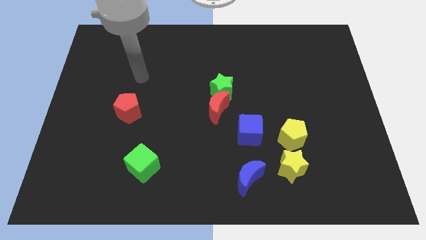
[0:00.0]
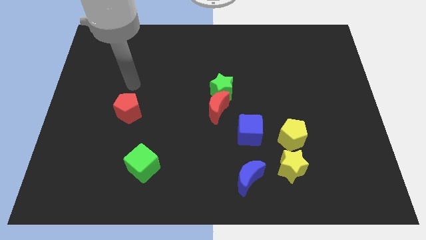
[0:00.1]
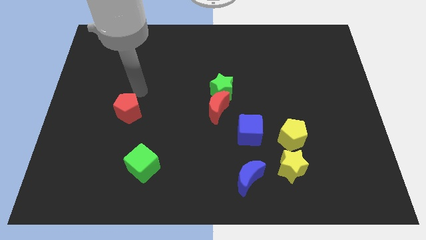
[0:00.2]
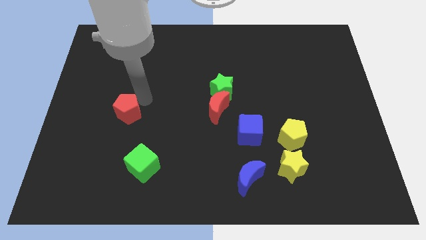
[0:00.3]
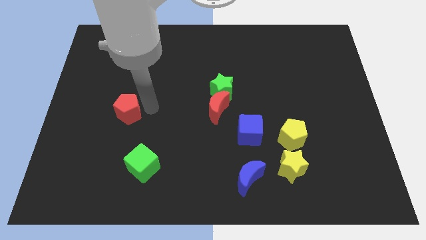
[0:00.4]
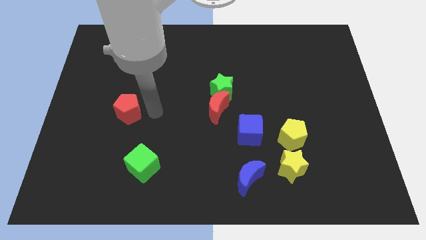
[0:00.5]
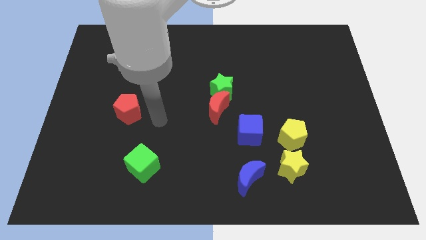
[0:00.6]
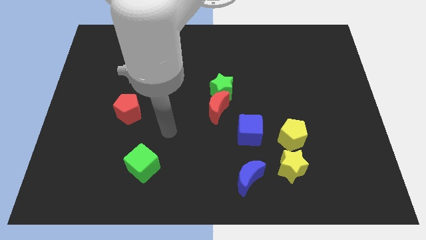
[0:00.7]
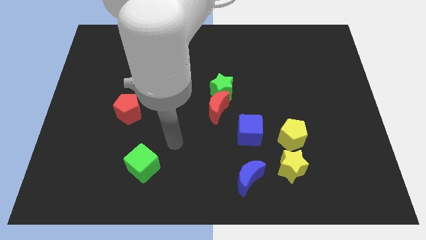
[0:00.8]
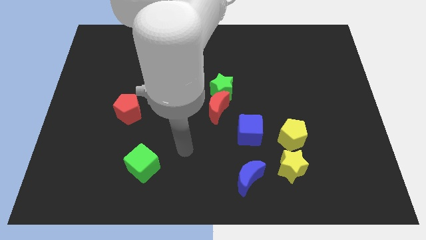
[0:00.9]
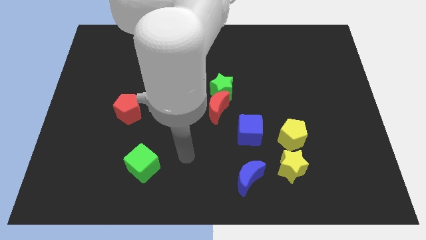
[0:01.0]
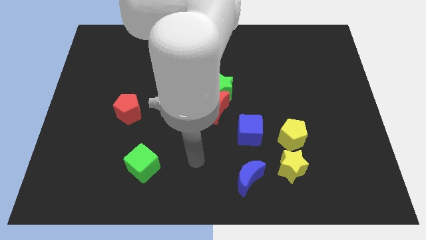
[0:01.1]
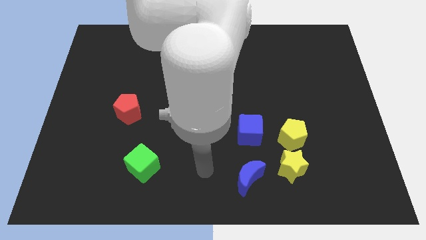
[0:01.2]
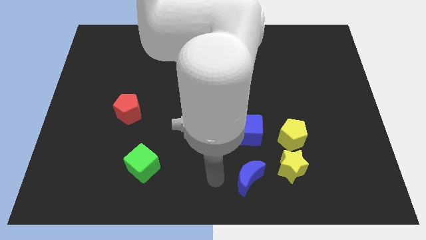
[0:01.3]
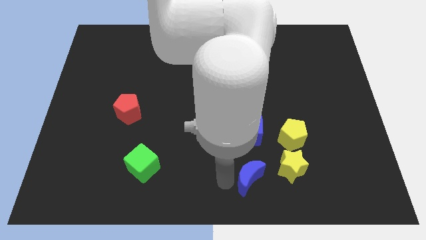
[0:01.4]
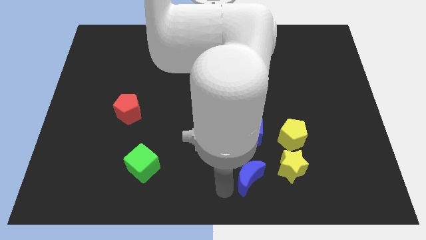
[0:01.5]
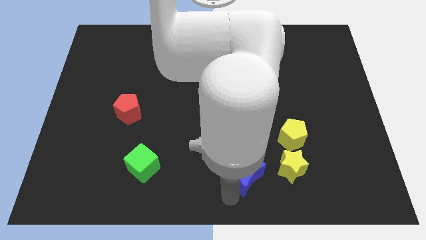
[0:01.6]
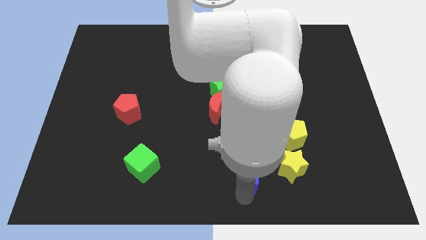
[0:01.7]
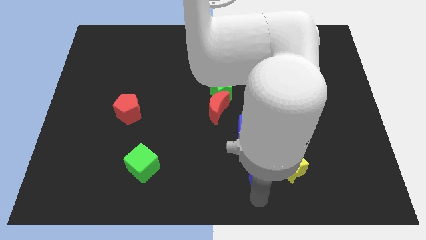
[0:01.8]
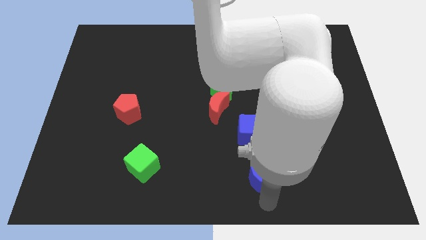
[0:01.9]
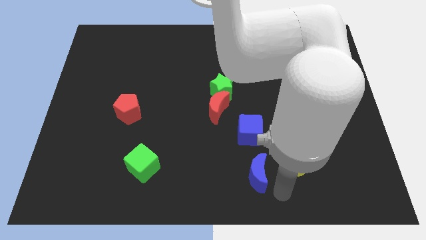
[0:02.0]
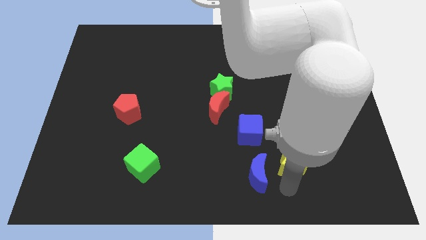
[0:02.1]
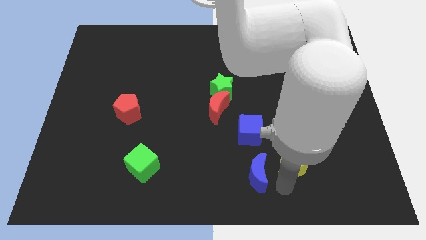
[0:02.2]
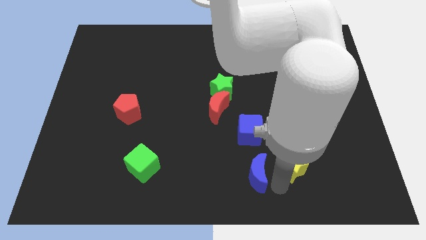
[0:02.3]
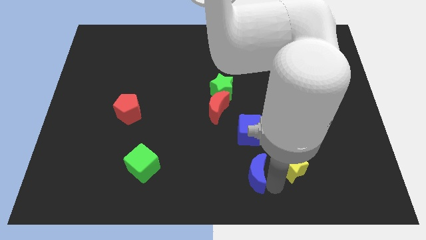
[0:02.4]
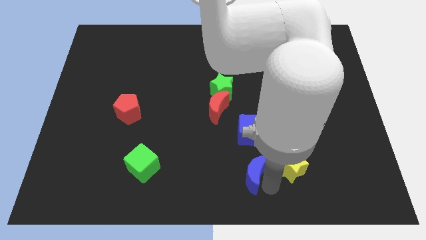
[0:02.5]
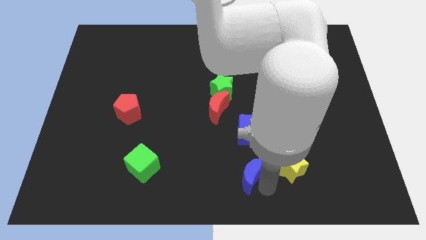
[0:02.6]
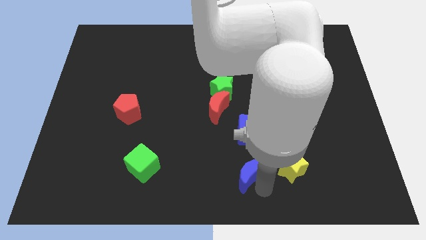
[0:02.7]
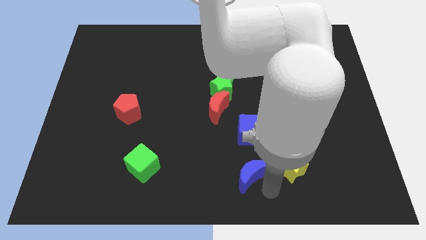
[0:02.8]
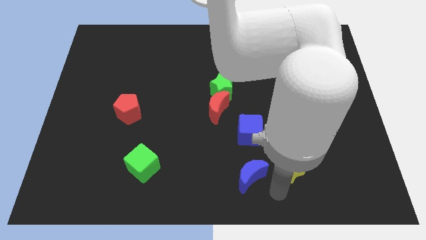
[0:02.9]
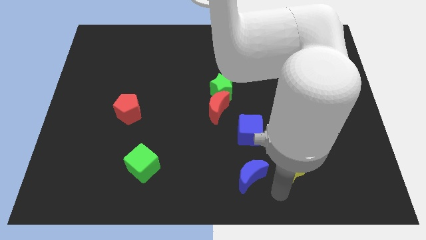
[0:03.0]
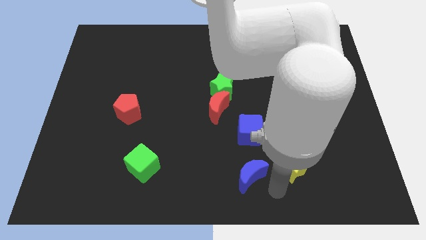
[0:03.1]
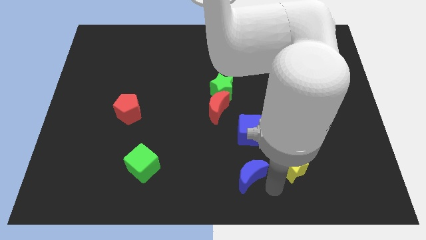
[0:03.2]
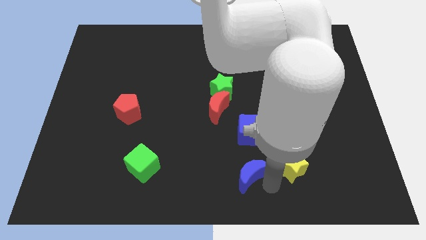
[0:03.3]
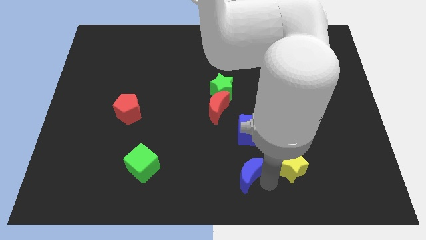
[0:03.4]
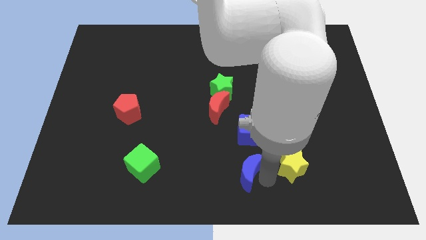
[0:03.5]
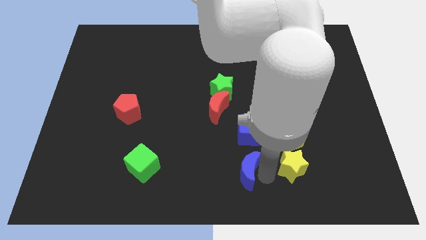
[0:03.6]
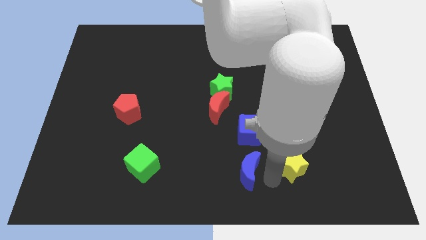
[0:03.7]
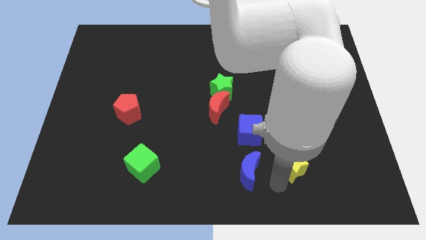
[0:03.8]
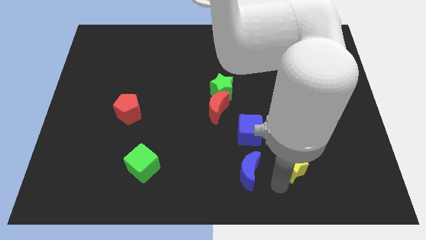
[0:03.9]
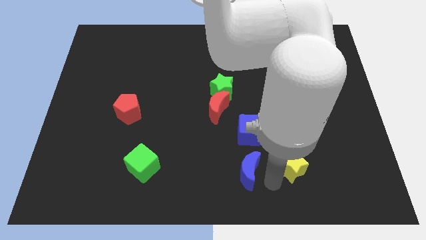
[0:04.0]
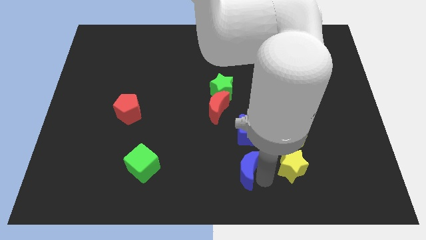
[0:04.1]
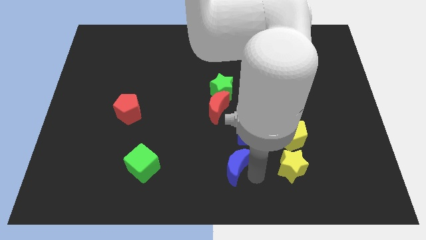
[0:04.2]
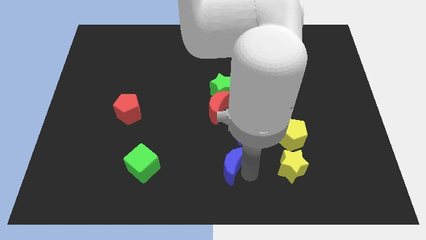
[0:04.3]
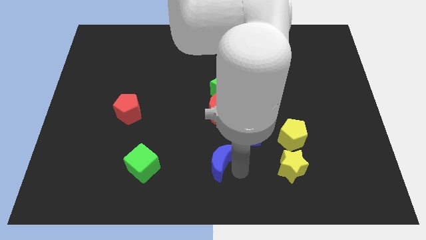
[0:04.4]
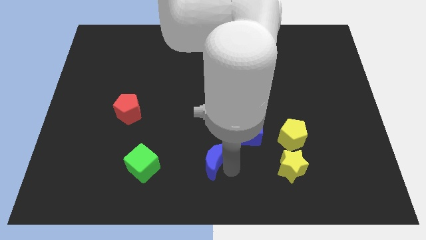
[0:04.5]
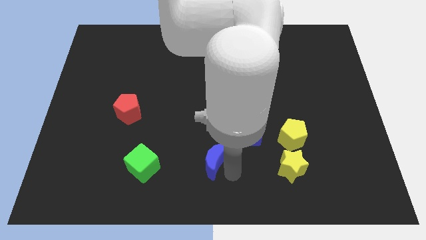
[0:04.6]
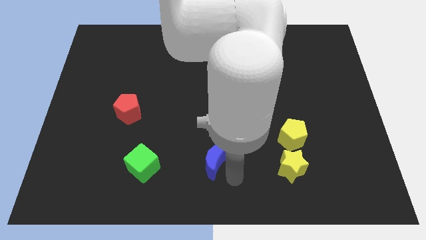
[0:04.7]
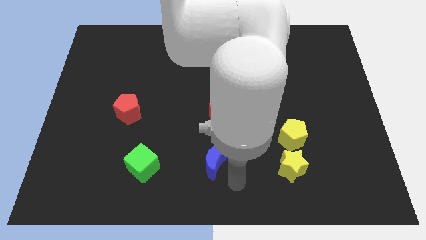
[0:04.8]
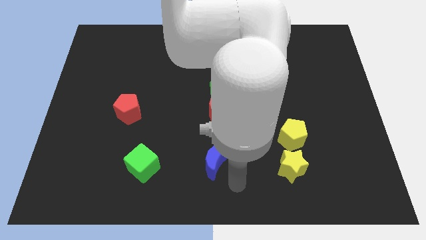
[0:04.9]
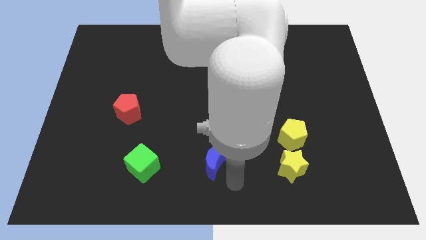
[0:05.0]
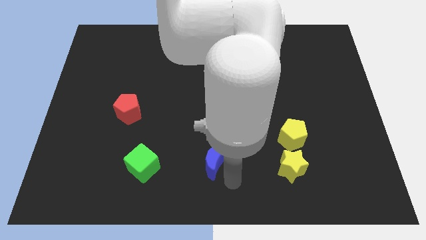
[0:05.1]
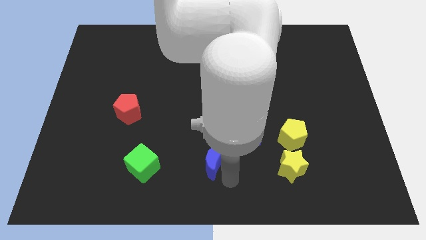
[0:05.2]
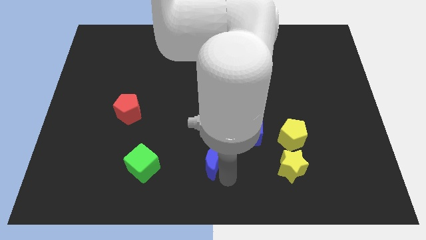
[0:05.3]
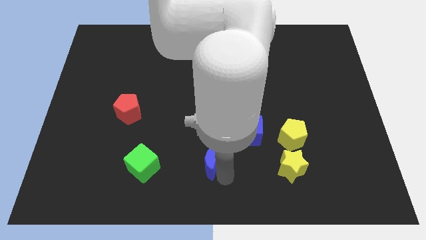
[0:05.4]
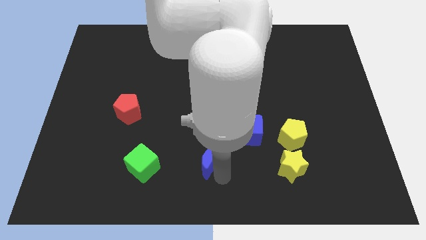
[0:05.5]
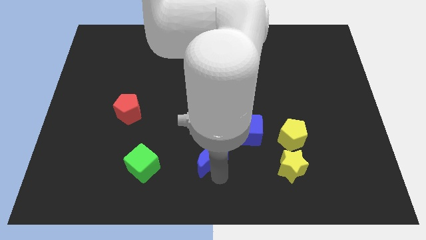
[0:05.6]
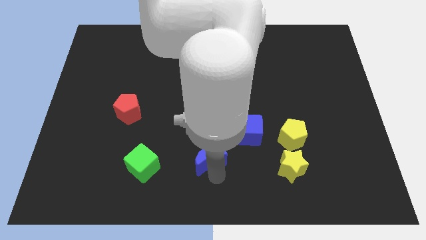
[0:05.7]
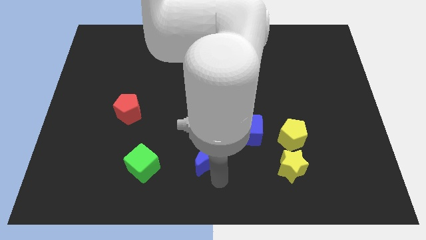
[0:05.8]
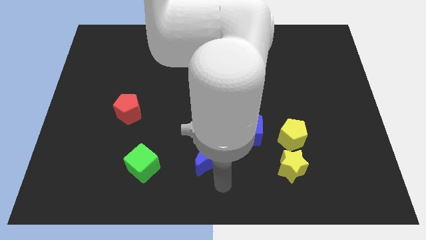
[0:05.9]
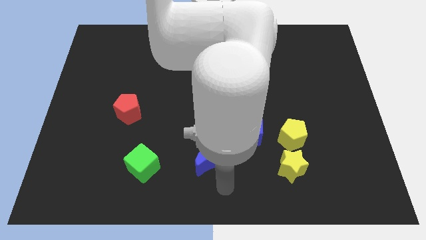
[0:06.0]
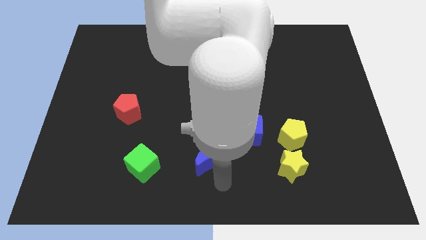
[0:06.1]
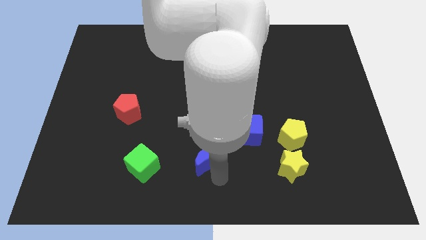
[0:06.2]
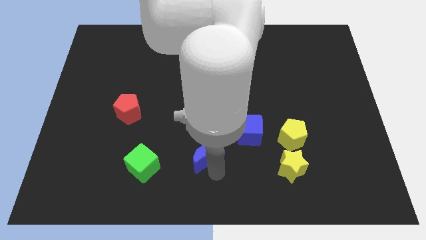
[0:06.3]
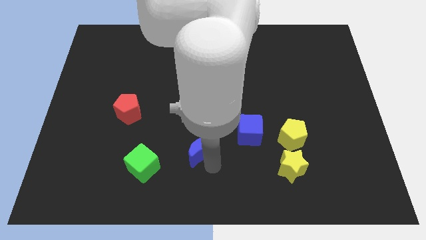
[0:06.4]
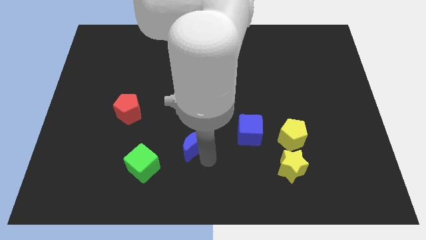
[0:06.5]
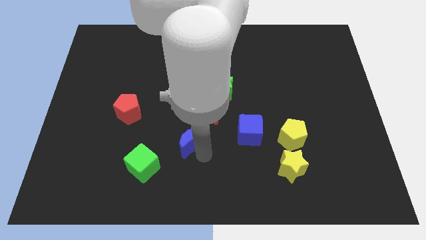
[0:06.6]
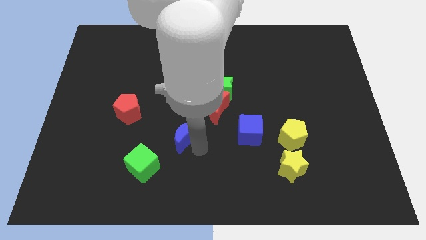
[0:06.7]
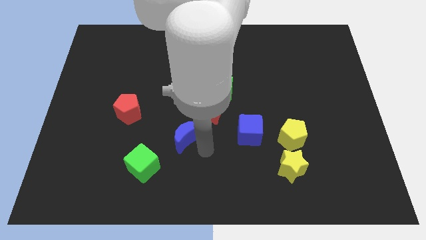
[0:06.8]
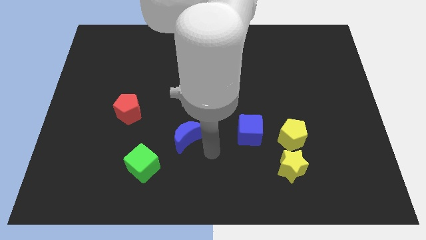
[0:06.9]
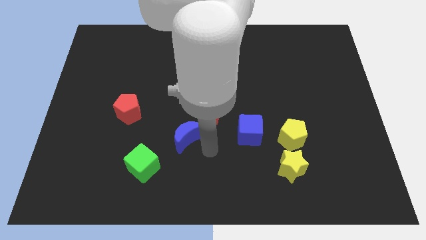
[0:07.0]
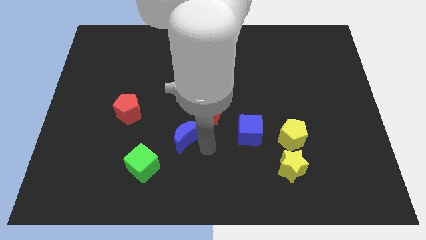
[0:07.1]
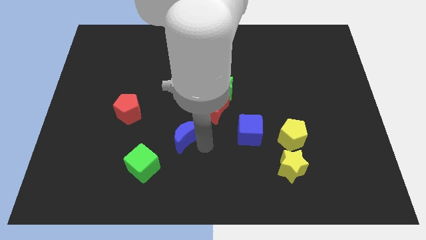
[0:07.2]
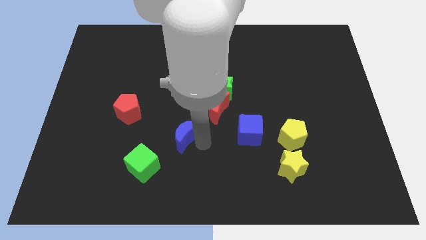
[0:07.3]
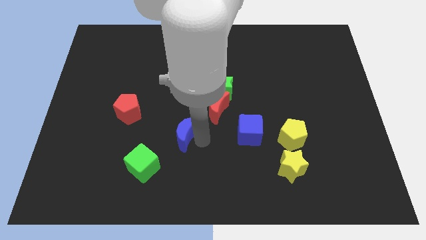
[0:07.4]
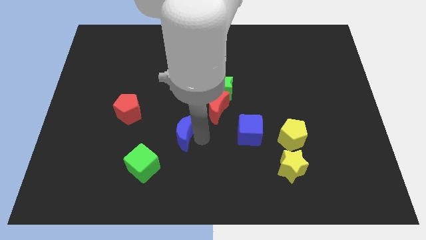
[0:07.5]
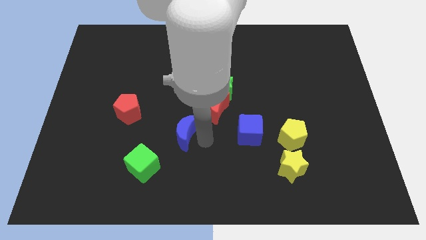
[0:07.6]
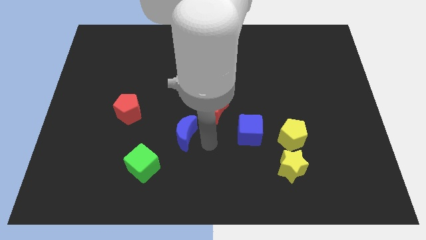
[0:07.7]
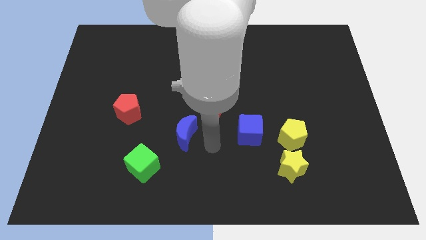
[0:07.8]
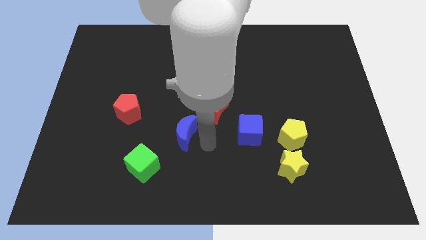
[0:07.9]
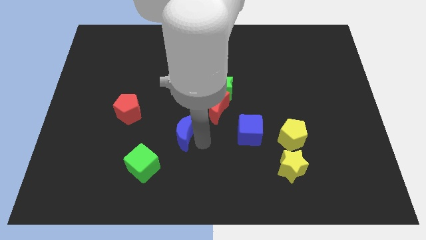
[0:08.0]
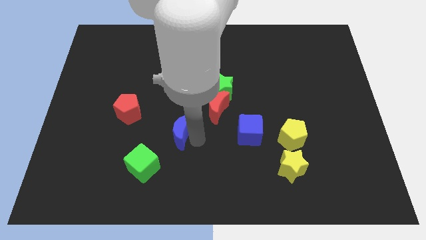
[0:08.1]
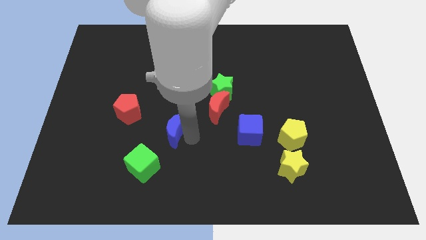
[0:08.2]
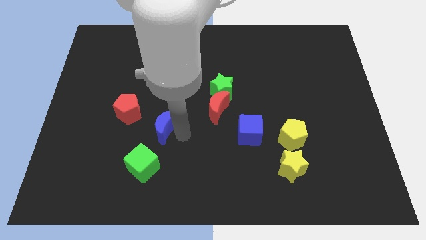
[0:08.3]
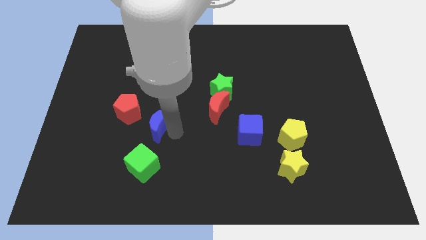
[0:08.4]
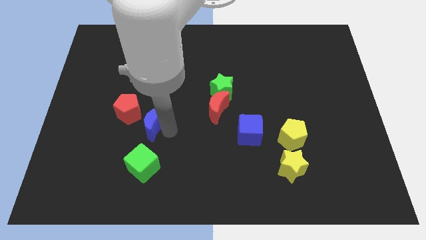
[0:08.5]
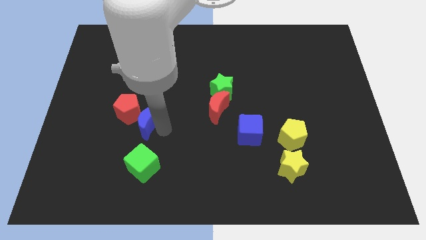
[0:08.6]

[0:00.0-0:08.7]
put the blue moon to the red pentagon
